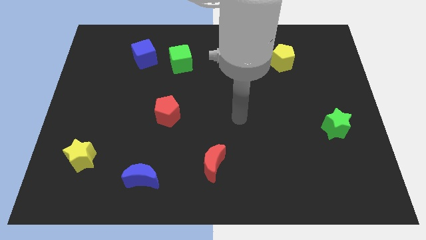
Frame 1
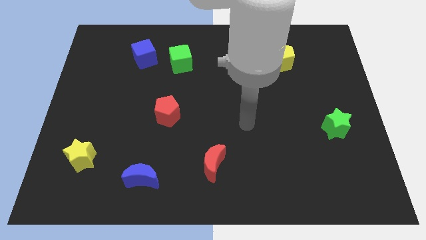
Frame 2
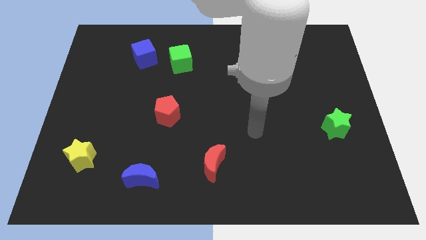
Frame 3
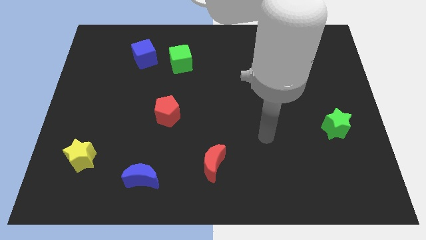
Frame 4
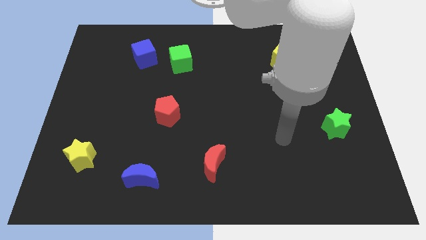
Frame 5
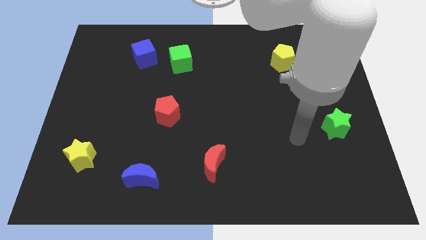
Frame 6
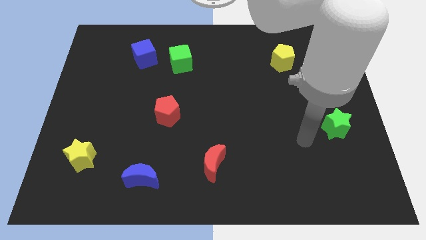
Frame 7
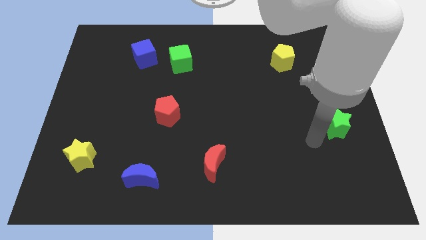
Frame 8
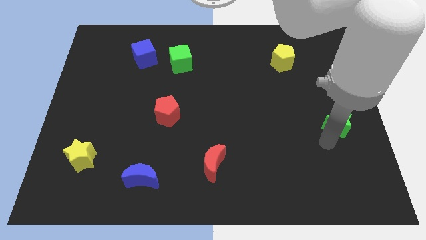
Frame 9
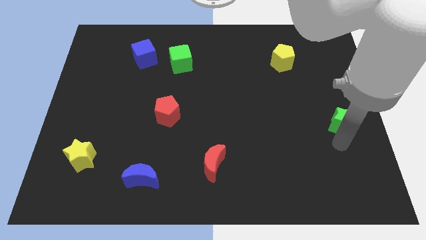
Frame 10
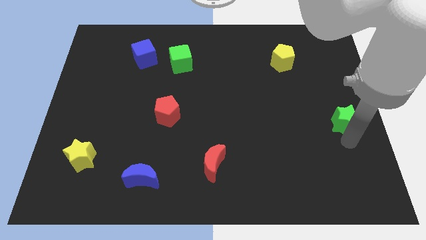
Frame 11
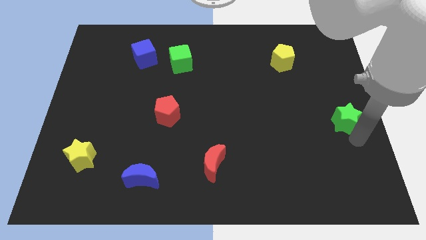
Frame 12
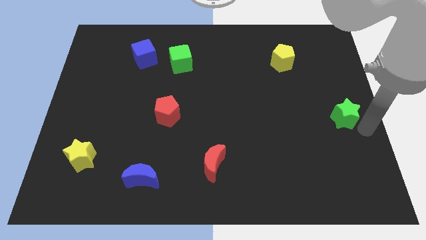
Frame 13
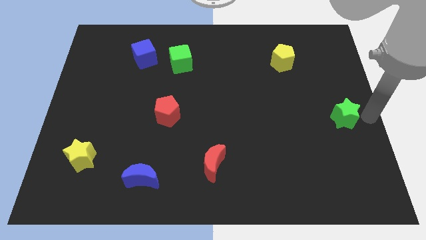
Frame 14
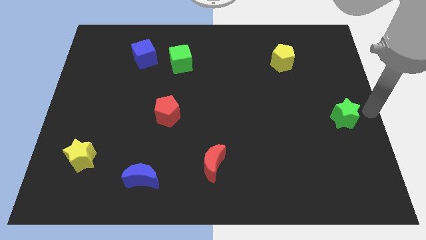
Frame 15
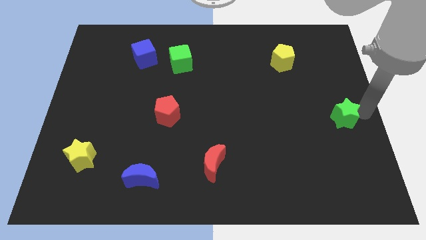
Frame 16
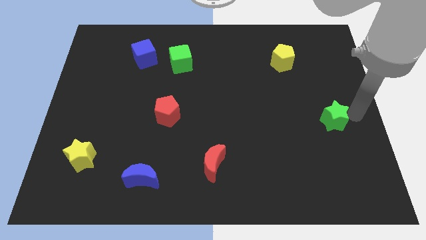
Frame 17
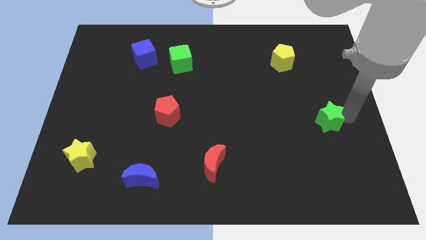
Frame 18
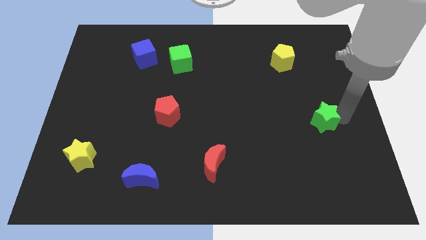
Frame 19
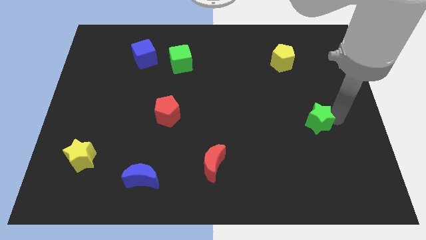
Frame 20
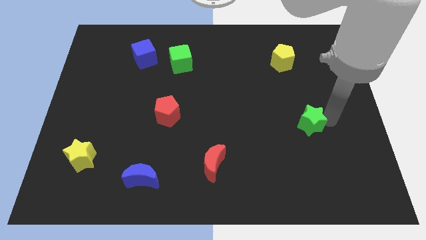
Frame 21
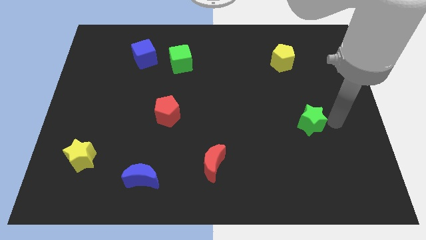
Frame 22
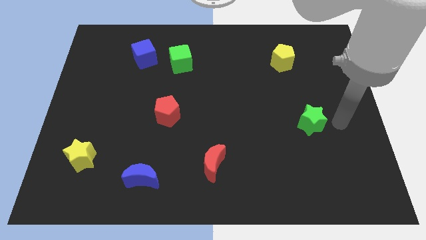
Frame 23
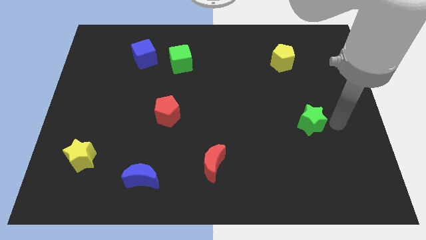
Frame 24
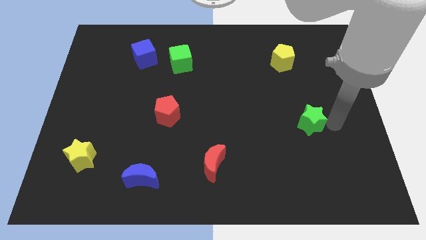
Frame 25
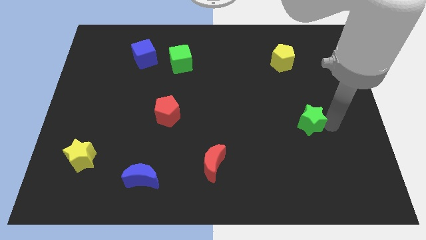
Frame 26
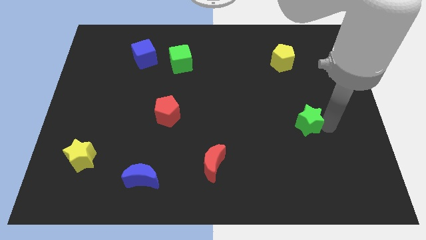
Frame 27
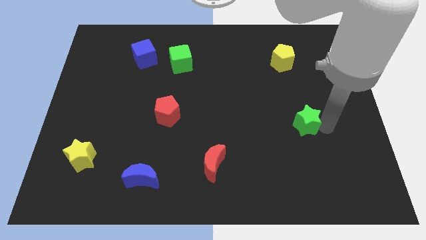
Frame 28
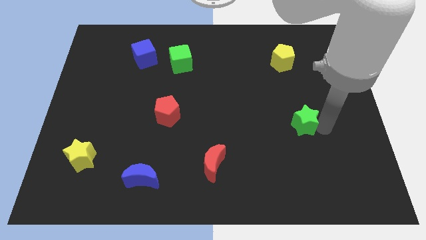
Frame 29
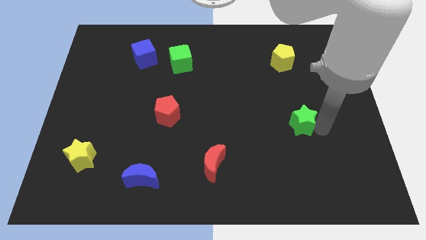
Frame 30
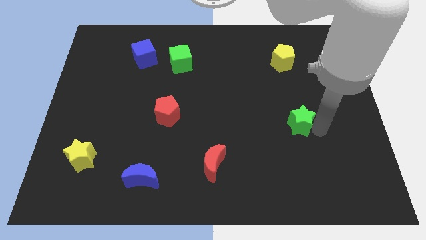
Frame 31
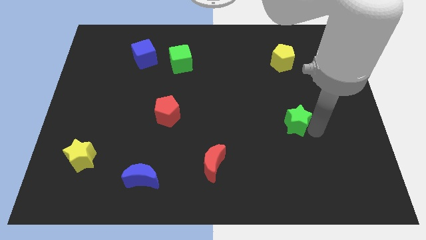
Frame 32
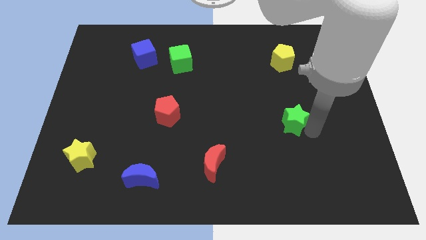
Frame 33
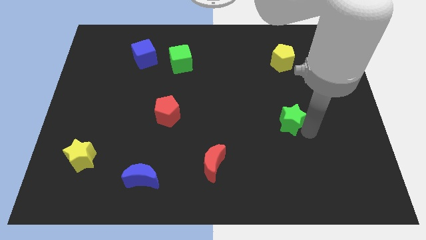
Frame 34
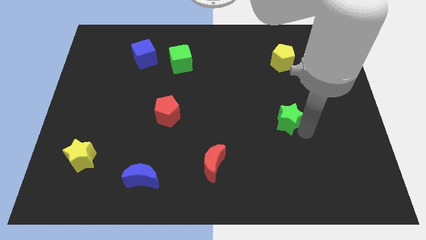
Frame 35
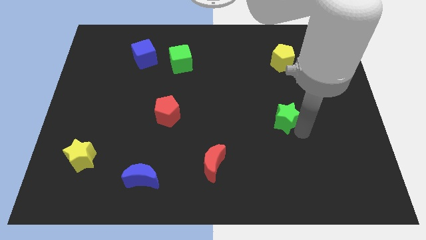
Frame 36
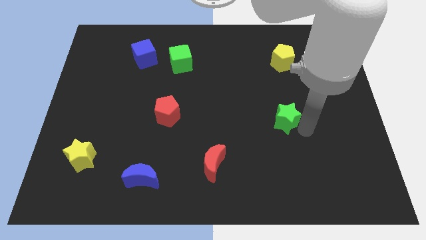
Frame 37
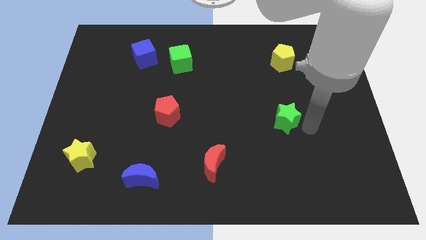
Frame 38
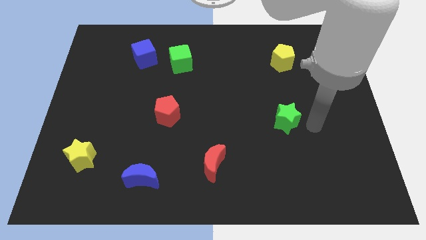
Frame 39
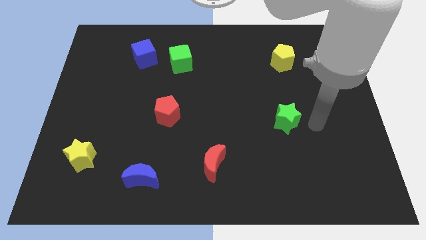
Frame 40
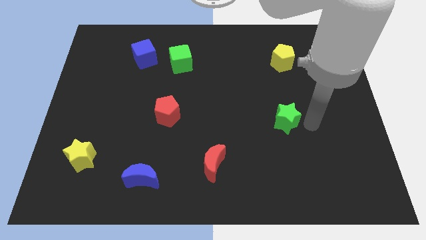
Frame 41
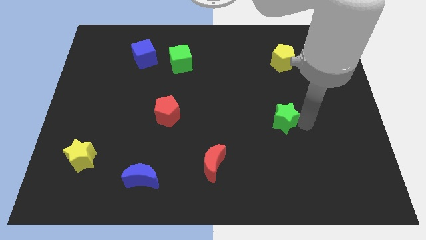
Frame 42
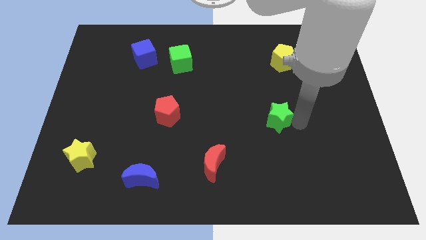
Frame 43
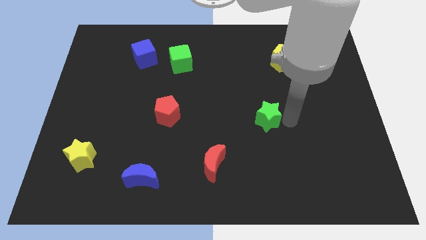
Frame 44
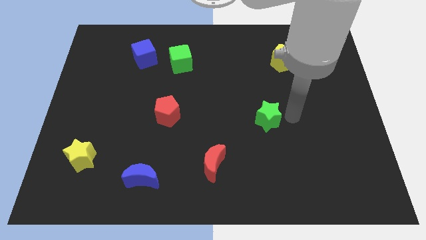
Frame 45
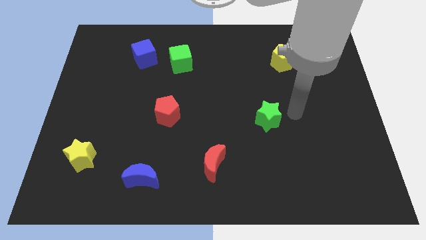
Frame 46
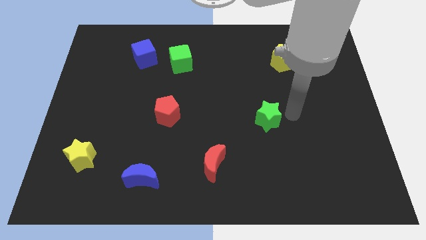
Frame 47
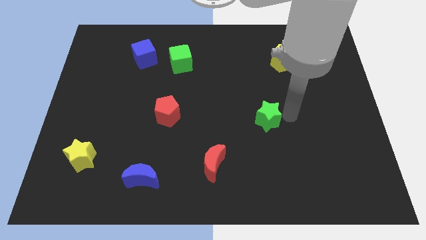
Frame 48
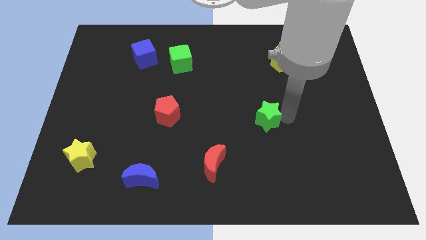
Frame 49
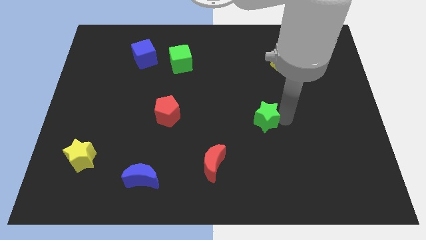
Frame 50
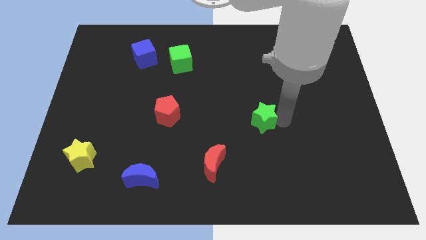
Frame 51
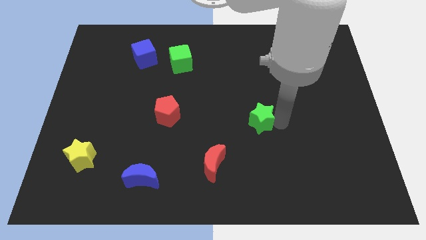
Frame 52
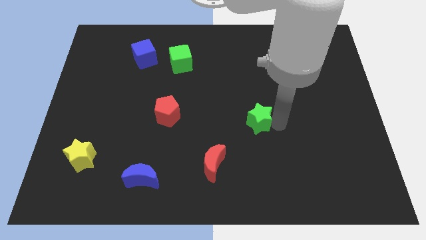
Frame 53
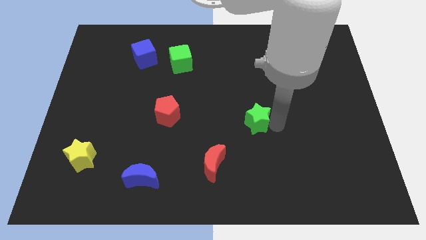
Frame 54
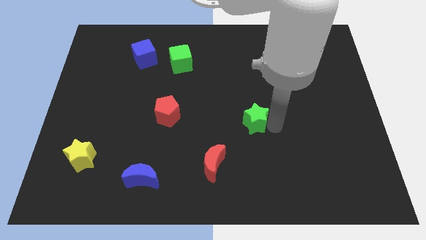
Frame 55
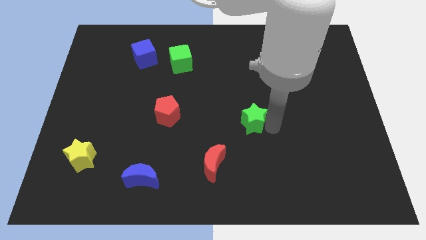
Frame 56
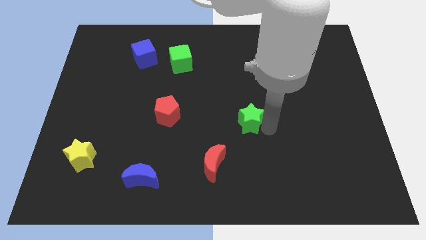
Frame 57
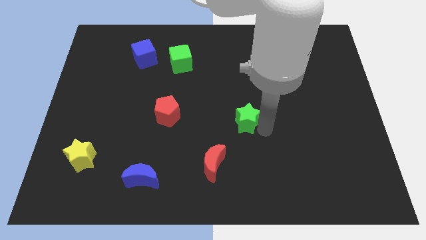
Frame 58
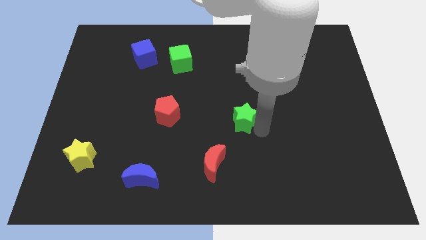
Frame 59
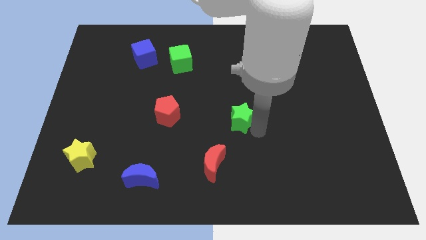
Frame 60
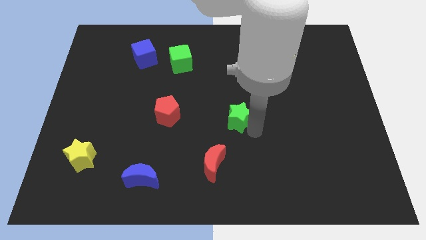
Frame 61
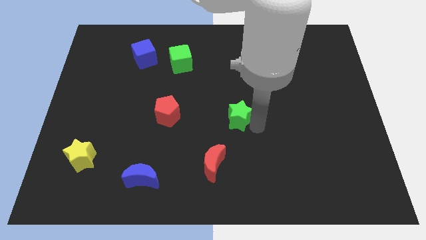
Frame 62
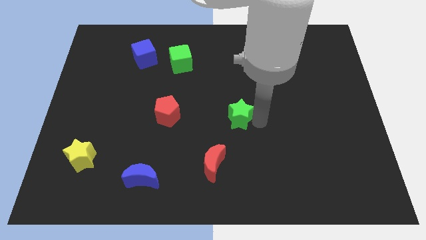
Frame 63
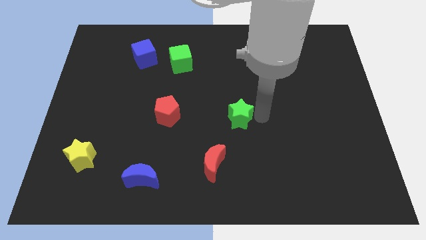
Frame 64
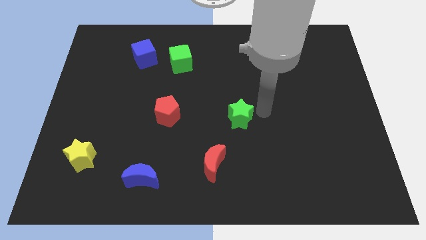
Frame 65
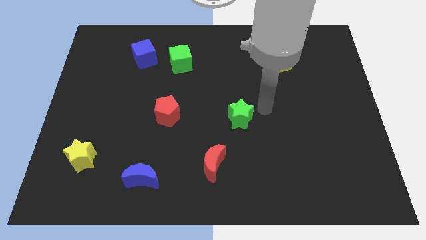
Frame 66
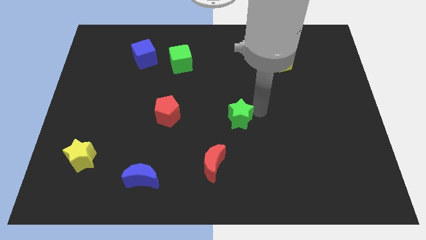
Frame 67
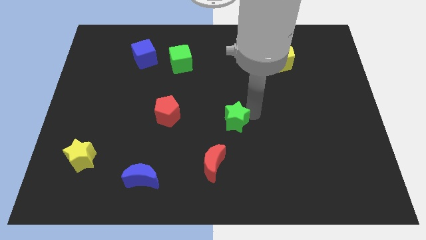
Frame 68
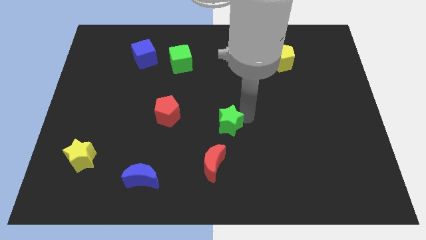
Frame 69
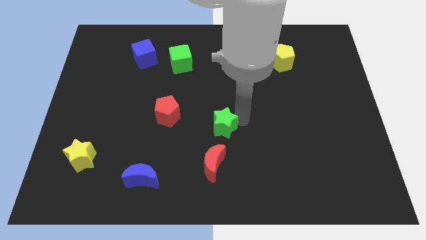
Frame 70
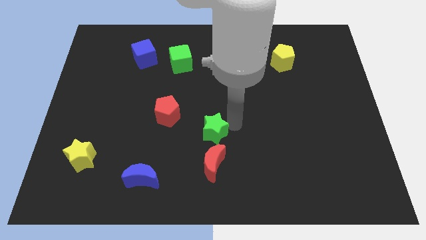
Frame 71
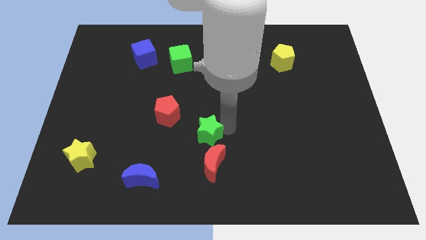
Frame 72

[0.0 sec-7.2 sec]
put the green star to the bottom right side of the red pentagon
